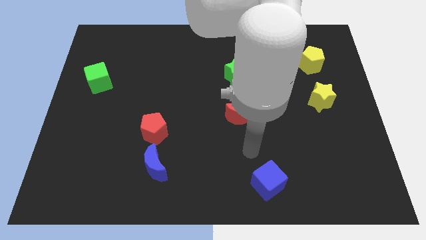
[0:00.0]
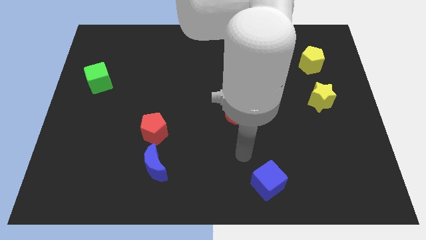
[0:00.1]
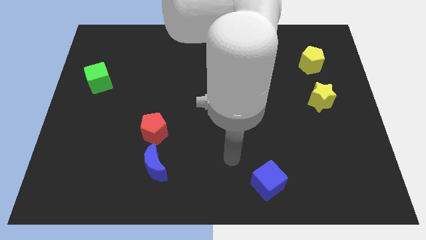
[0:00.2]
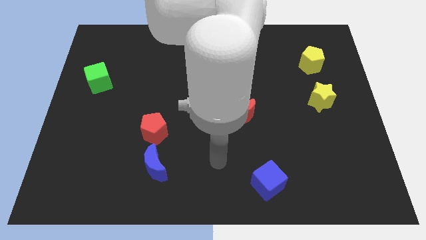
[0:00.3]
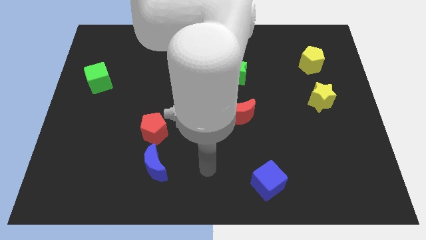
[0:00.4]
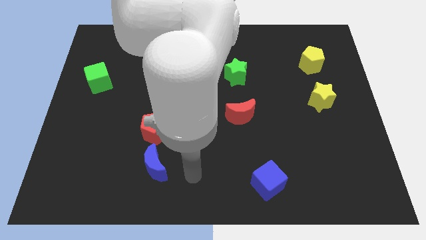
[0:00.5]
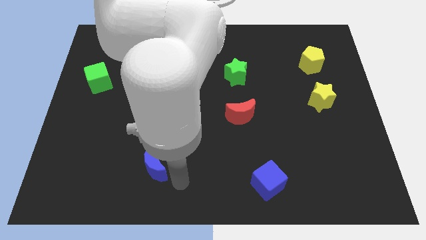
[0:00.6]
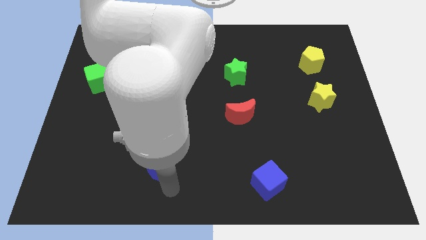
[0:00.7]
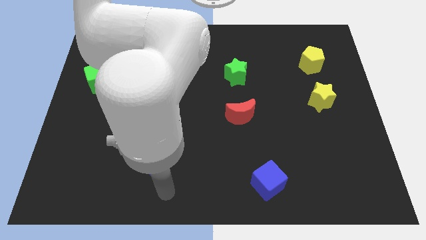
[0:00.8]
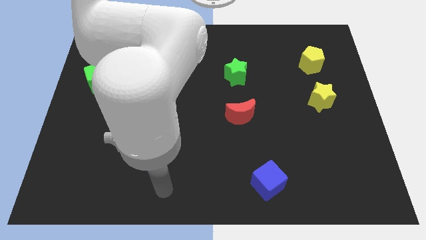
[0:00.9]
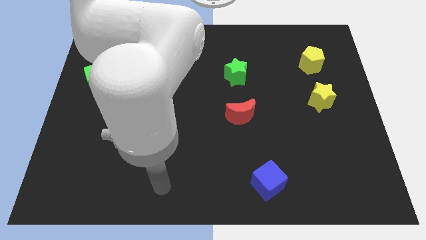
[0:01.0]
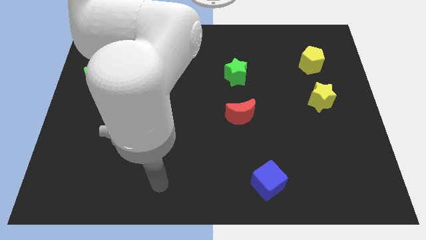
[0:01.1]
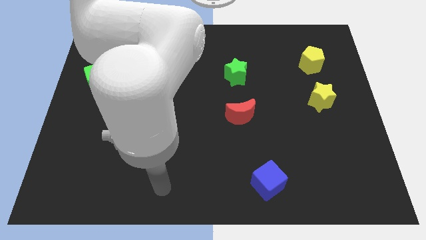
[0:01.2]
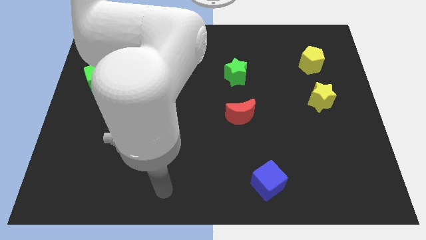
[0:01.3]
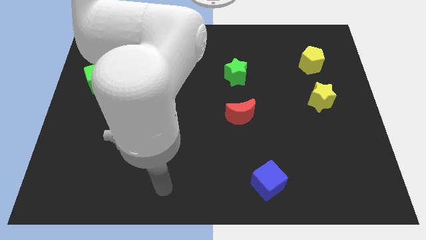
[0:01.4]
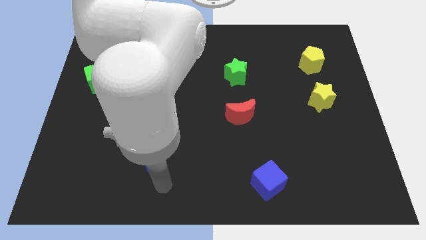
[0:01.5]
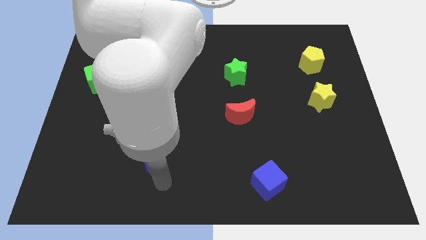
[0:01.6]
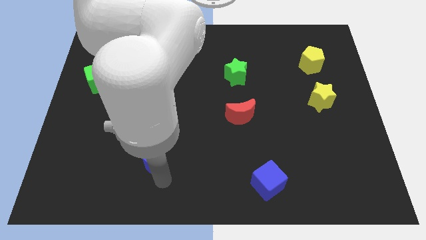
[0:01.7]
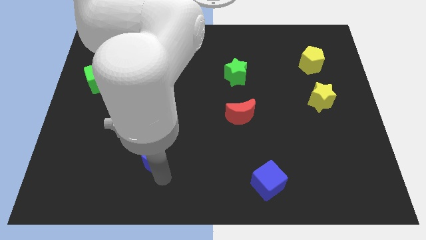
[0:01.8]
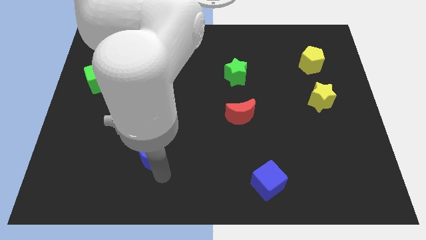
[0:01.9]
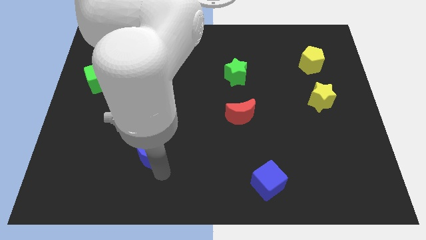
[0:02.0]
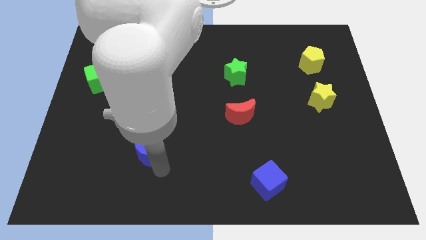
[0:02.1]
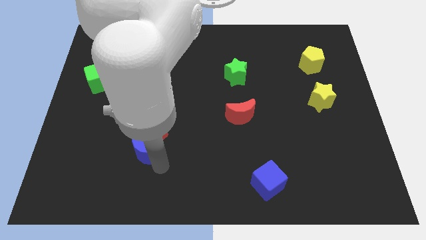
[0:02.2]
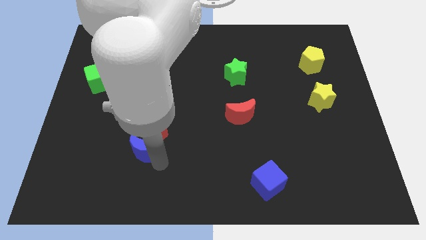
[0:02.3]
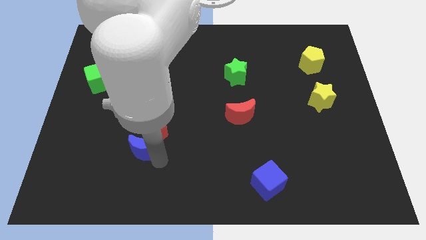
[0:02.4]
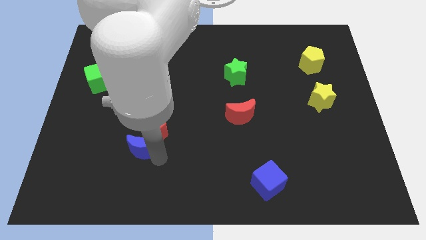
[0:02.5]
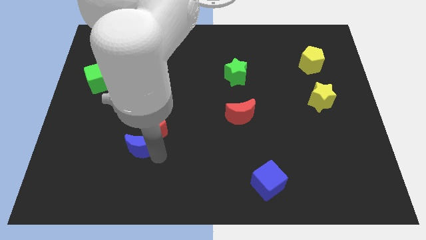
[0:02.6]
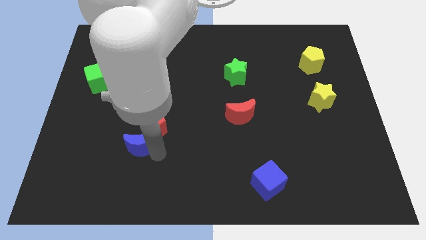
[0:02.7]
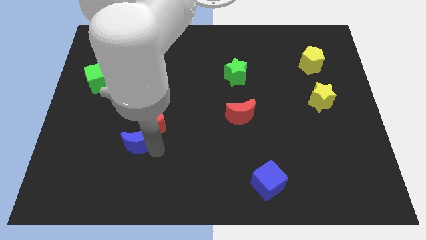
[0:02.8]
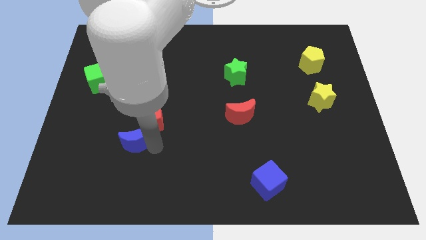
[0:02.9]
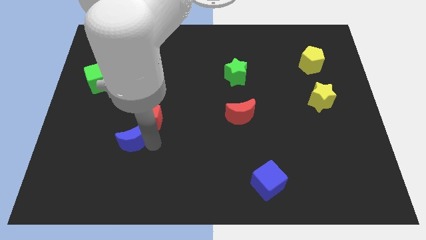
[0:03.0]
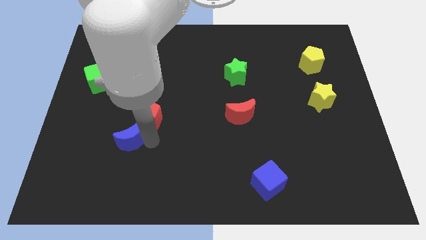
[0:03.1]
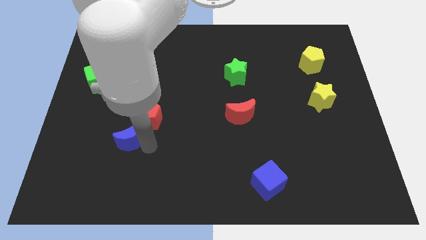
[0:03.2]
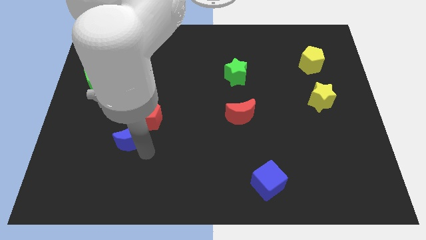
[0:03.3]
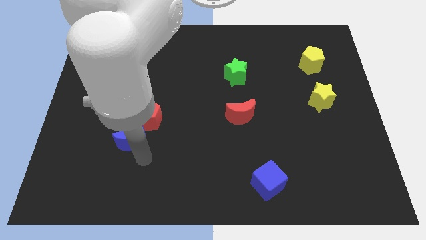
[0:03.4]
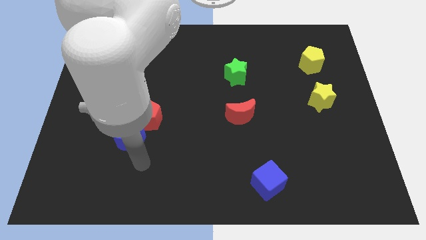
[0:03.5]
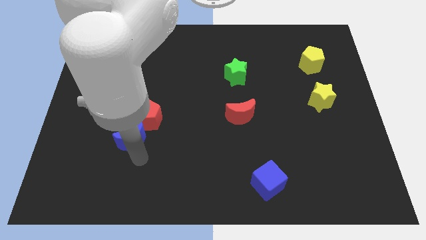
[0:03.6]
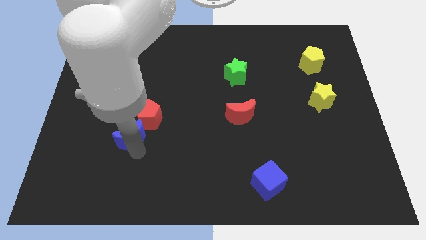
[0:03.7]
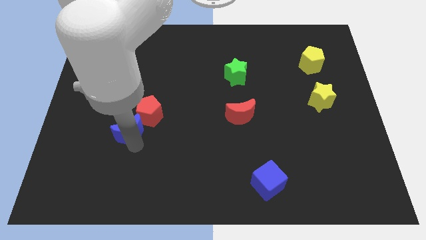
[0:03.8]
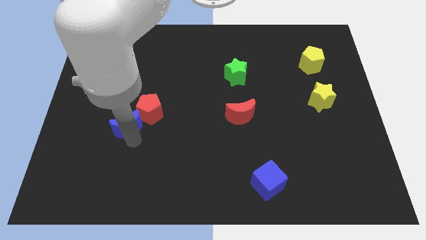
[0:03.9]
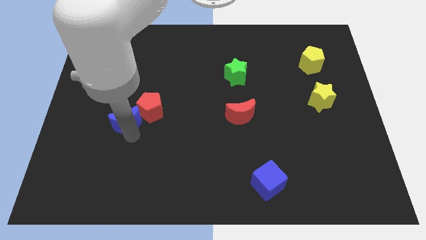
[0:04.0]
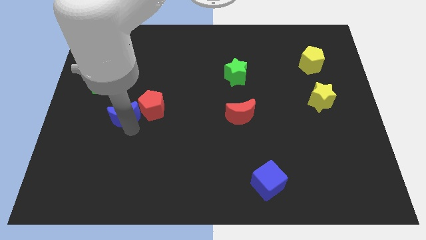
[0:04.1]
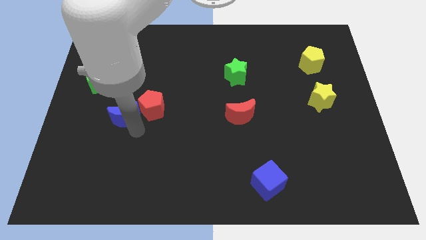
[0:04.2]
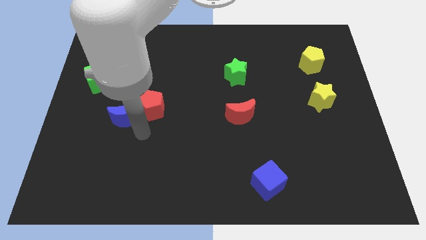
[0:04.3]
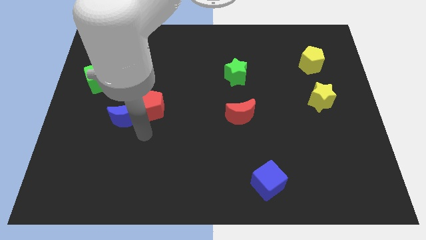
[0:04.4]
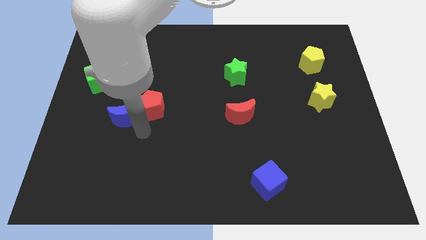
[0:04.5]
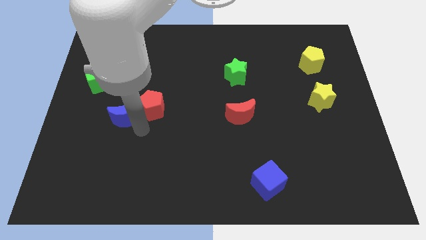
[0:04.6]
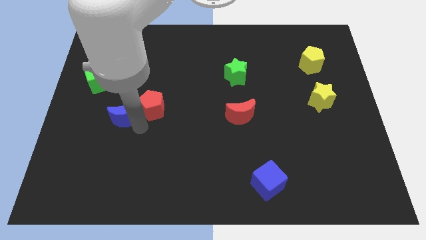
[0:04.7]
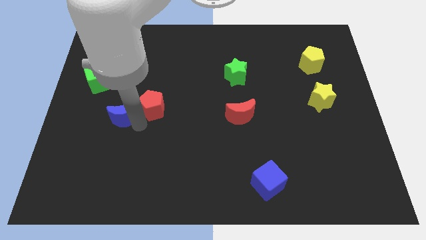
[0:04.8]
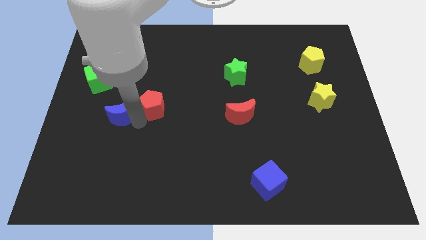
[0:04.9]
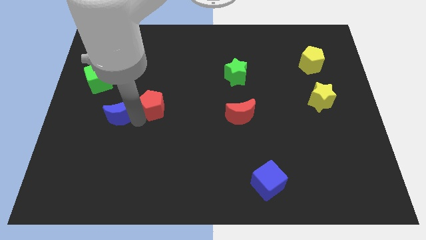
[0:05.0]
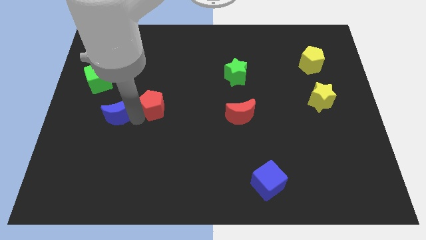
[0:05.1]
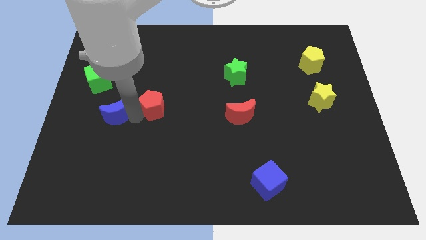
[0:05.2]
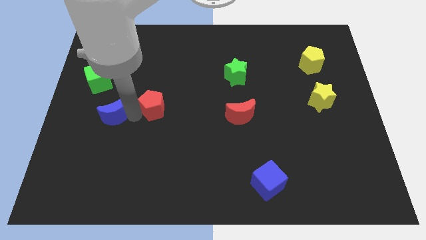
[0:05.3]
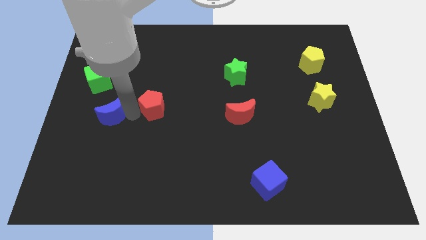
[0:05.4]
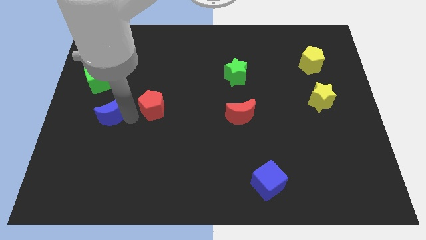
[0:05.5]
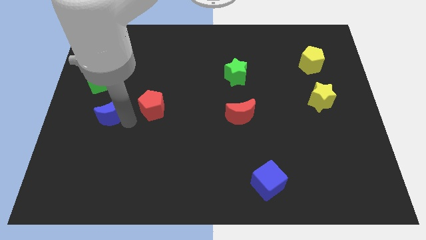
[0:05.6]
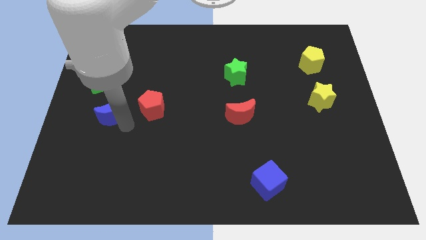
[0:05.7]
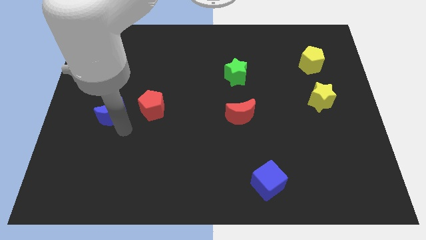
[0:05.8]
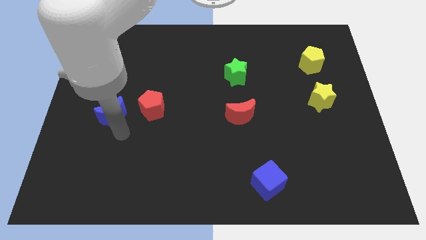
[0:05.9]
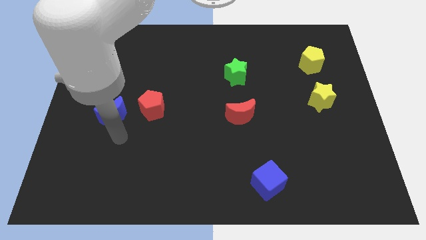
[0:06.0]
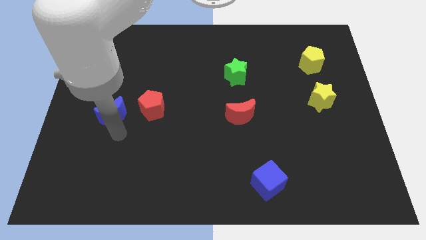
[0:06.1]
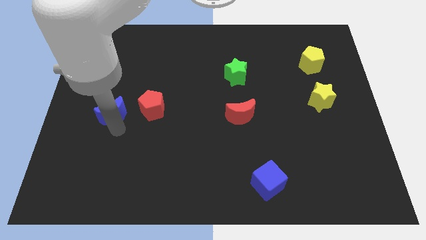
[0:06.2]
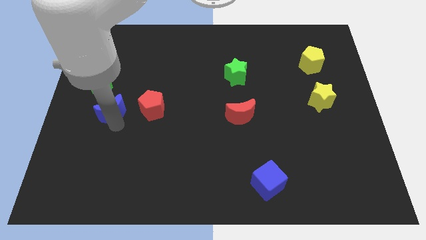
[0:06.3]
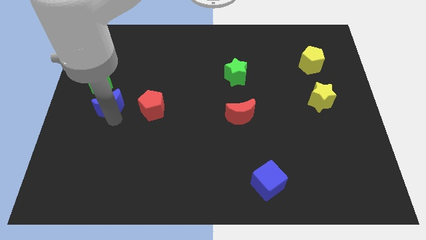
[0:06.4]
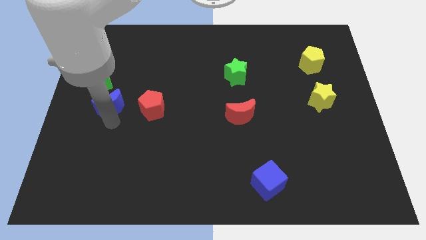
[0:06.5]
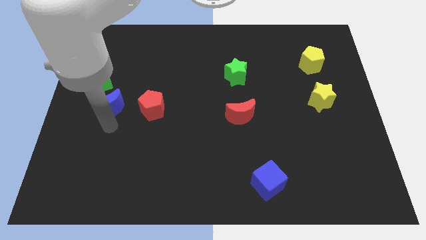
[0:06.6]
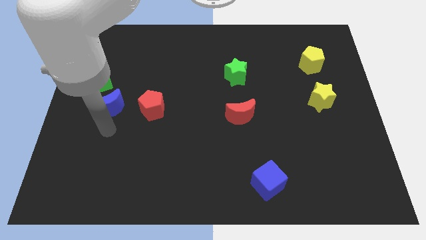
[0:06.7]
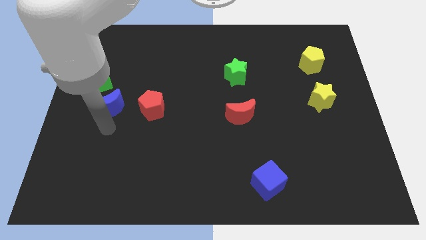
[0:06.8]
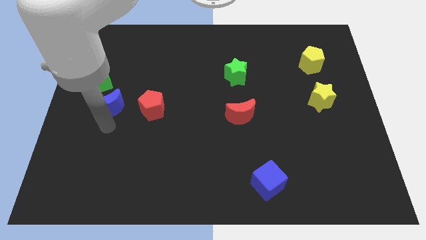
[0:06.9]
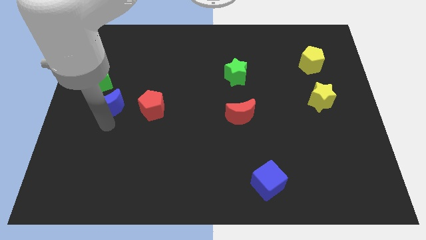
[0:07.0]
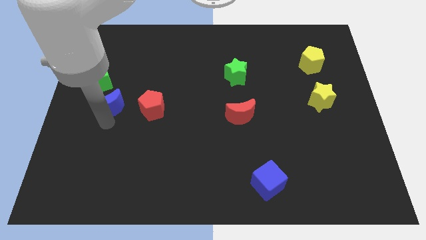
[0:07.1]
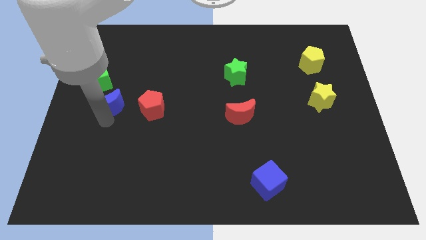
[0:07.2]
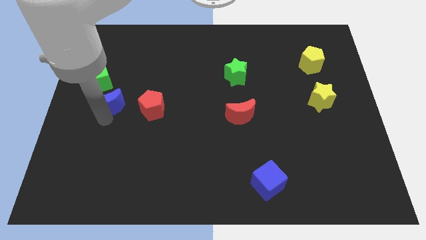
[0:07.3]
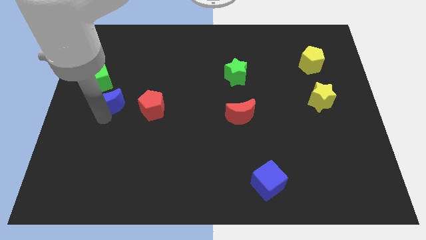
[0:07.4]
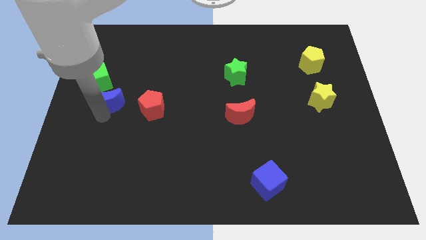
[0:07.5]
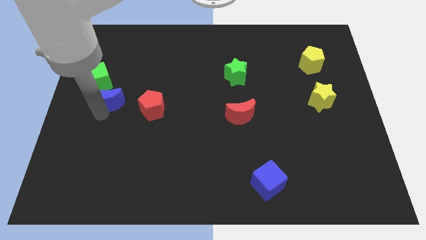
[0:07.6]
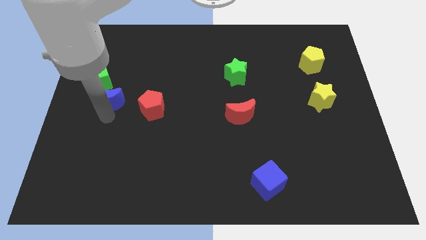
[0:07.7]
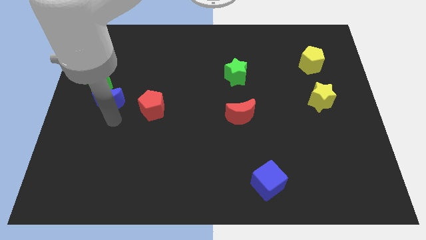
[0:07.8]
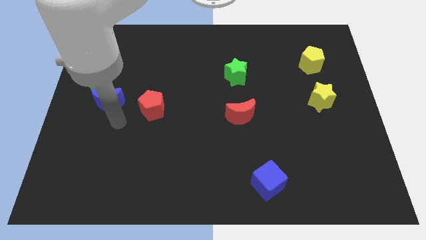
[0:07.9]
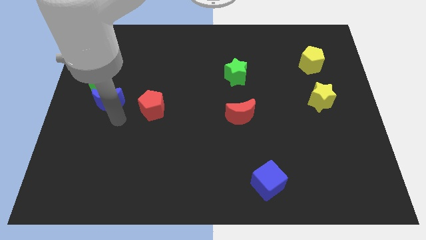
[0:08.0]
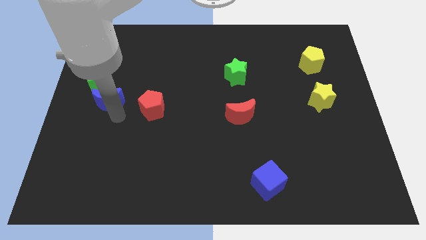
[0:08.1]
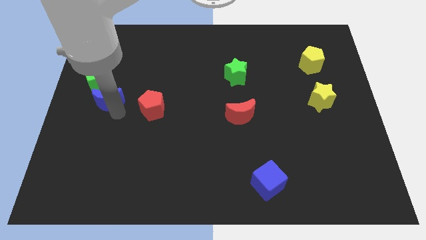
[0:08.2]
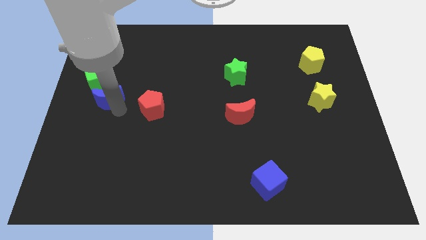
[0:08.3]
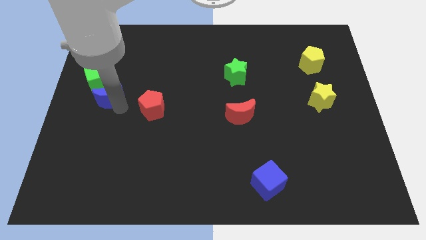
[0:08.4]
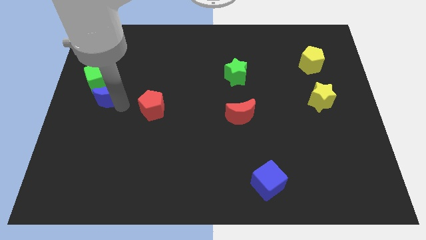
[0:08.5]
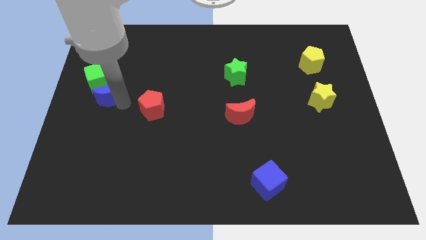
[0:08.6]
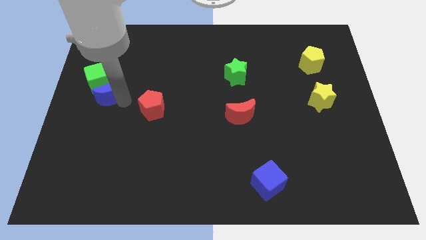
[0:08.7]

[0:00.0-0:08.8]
put the blue moon to the green cube
